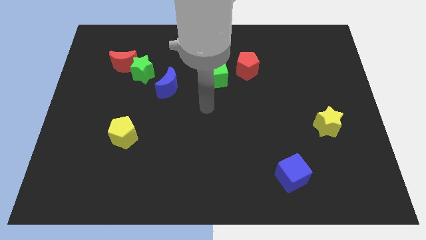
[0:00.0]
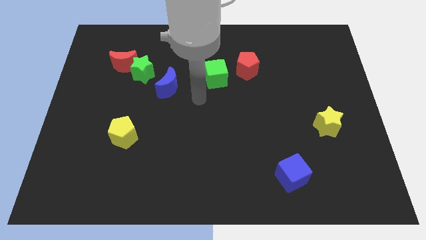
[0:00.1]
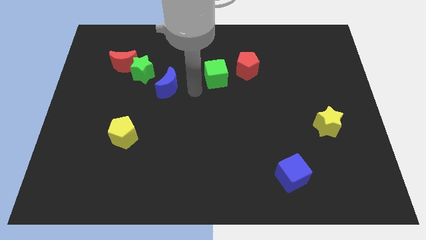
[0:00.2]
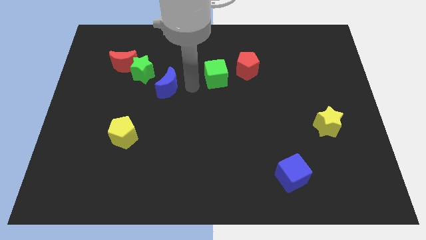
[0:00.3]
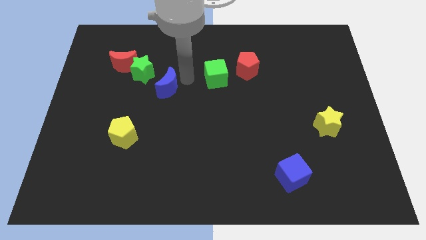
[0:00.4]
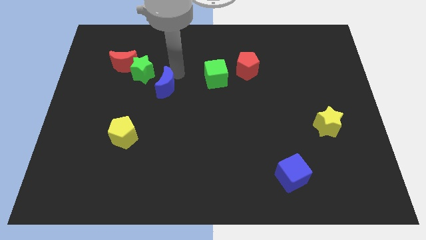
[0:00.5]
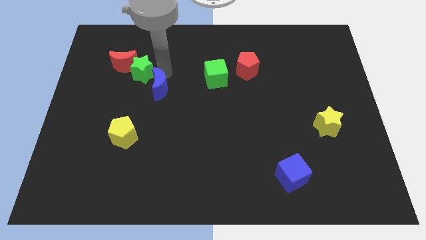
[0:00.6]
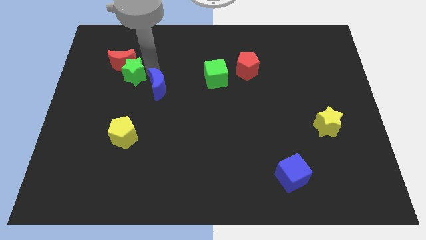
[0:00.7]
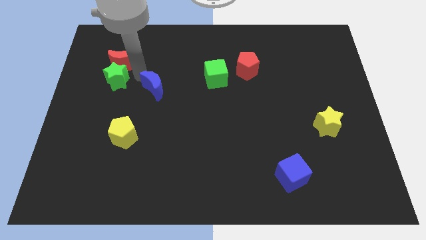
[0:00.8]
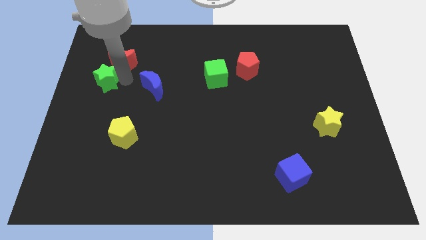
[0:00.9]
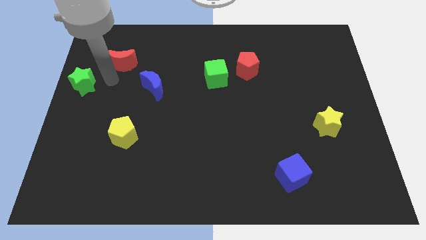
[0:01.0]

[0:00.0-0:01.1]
pull the red moon apart from the green star

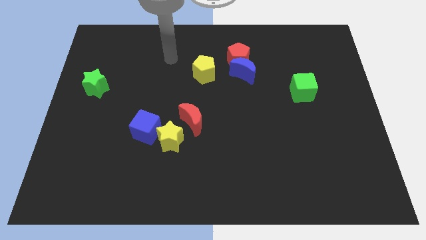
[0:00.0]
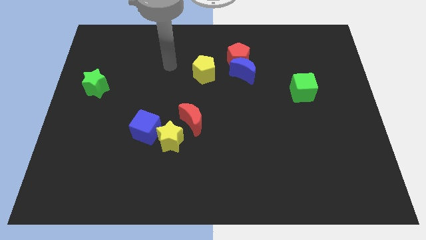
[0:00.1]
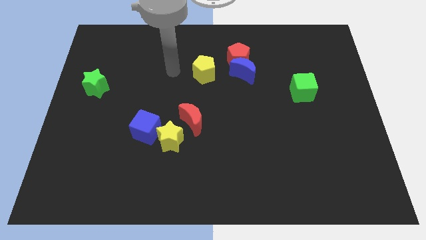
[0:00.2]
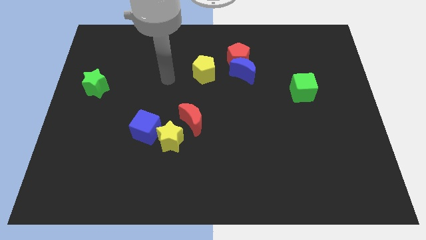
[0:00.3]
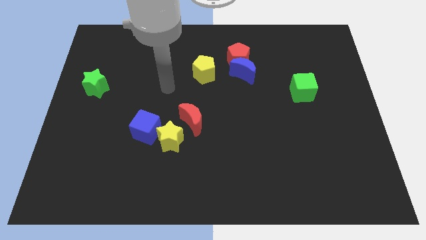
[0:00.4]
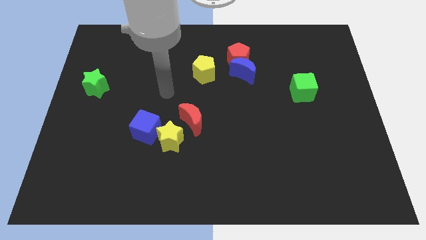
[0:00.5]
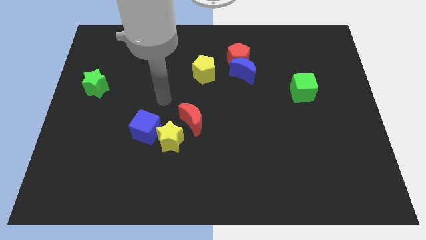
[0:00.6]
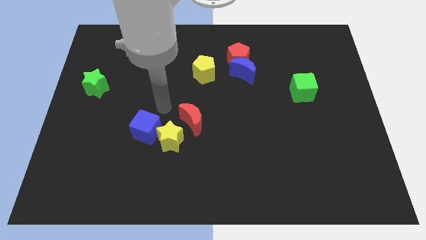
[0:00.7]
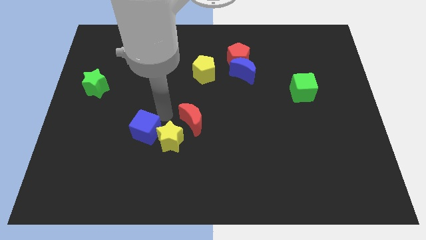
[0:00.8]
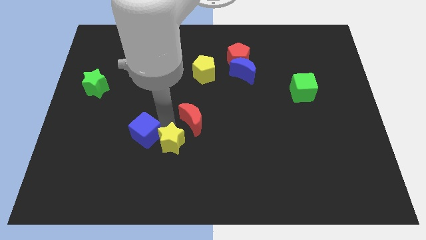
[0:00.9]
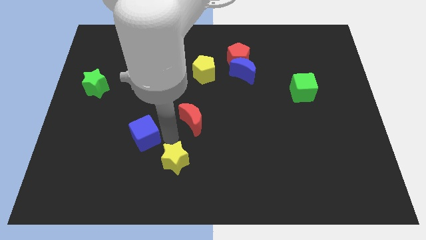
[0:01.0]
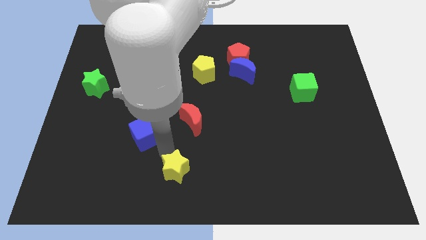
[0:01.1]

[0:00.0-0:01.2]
separate the blue cube from the yellow star

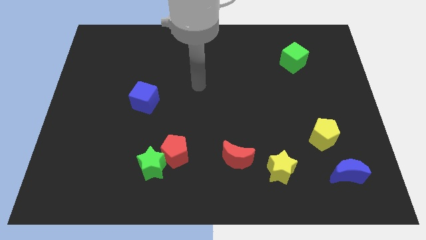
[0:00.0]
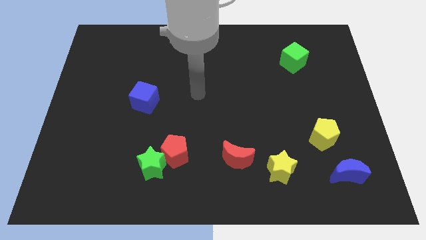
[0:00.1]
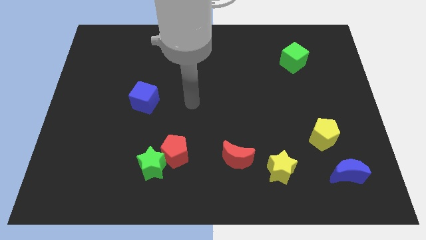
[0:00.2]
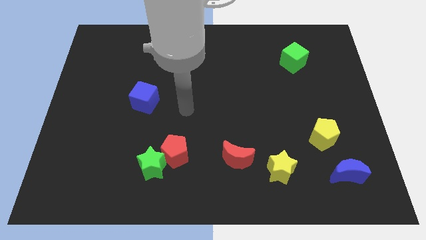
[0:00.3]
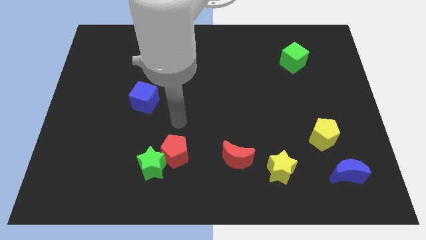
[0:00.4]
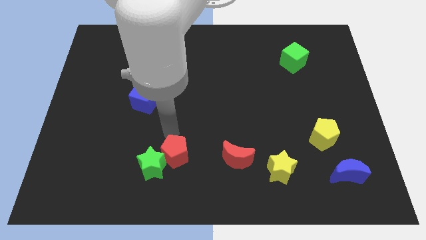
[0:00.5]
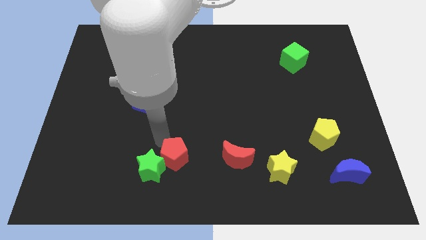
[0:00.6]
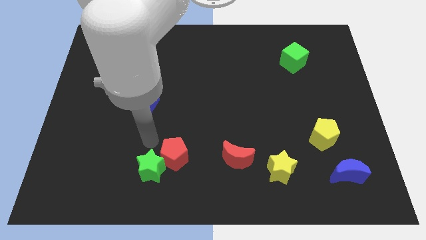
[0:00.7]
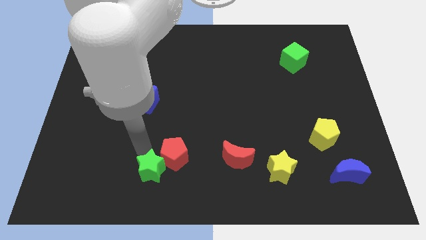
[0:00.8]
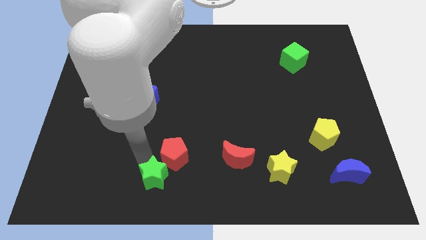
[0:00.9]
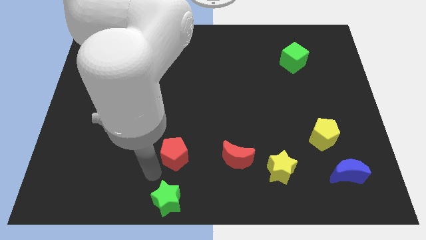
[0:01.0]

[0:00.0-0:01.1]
move the red pentagon away from the green star

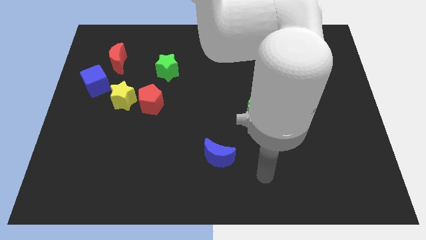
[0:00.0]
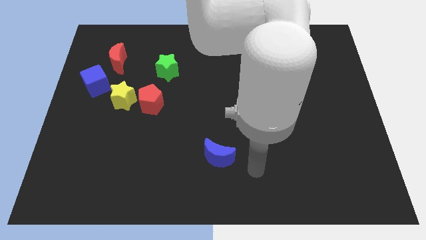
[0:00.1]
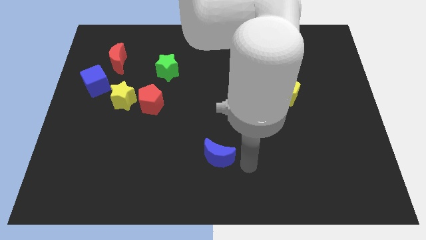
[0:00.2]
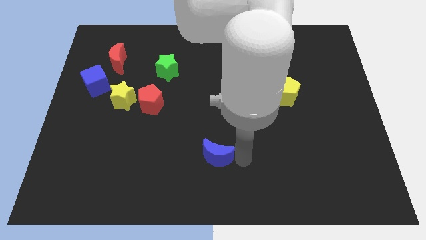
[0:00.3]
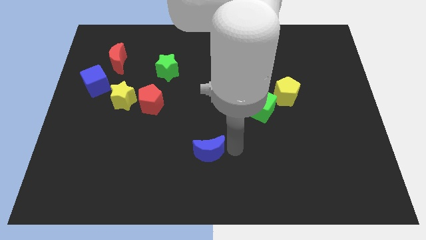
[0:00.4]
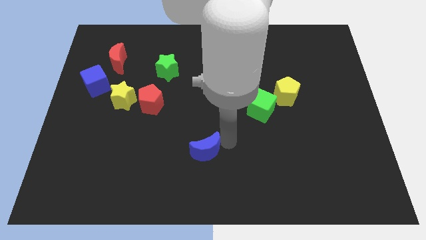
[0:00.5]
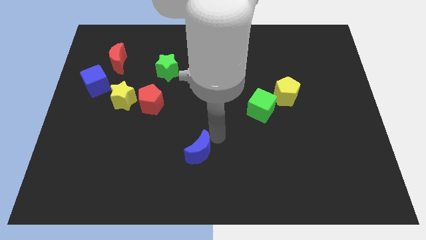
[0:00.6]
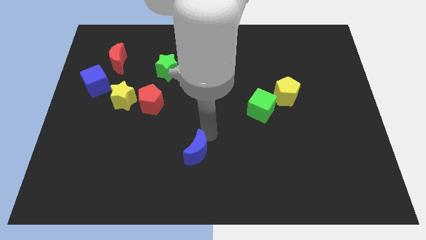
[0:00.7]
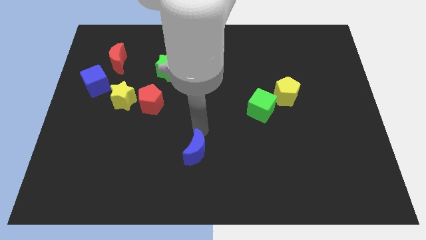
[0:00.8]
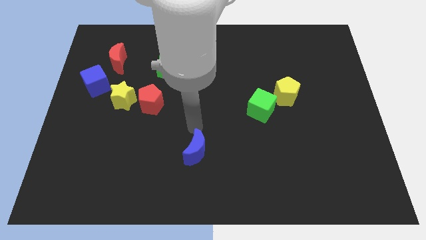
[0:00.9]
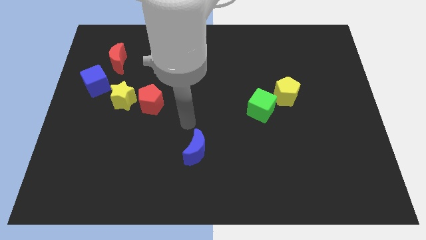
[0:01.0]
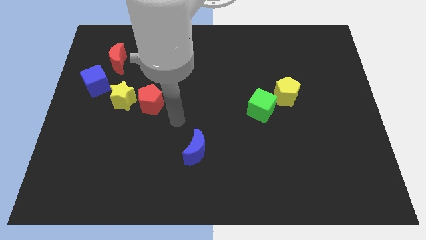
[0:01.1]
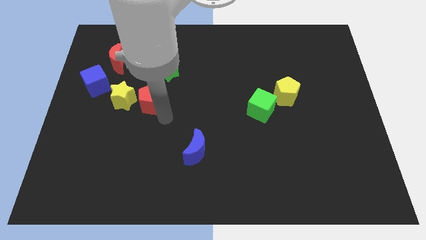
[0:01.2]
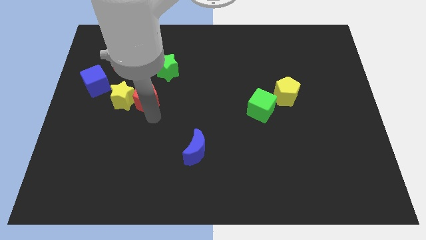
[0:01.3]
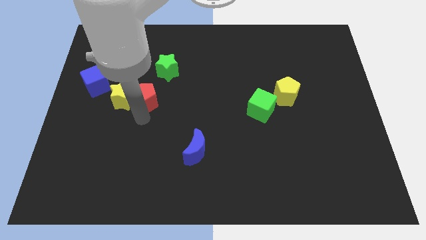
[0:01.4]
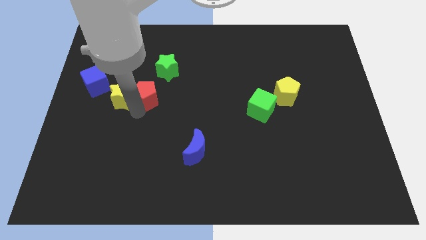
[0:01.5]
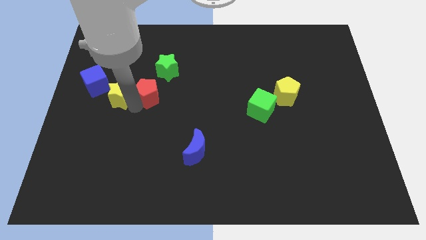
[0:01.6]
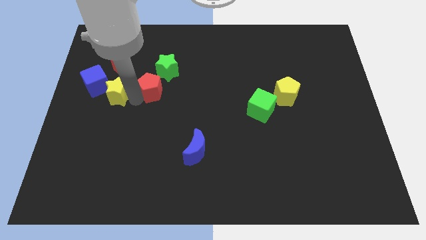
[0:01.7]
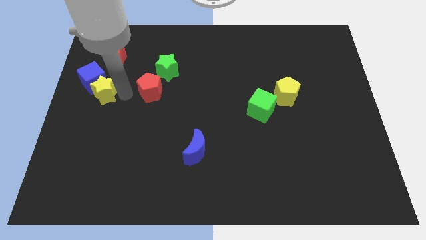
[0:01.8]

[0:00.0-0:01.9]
move the red pentagon away from the yellow star

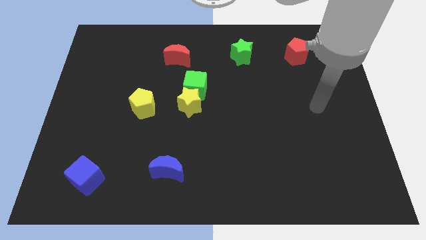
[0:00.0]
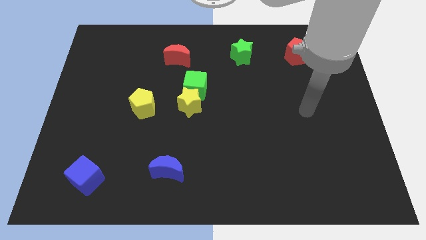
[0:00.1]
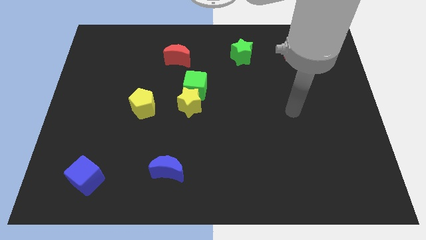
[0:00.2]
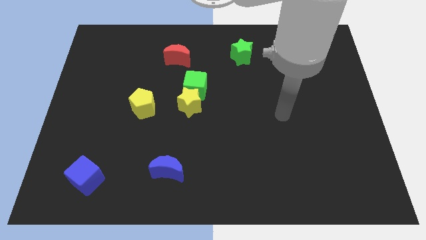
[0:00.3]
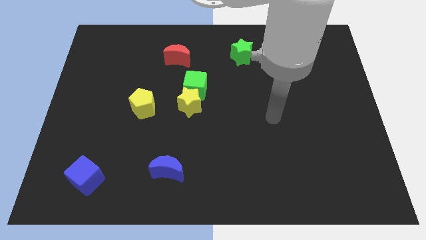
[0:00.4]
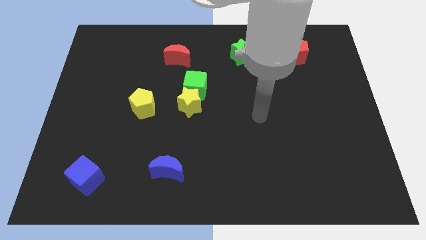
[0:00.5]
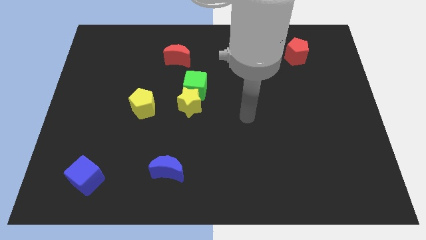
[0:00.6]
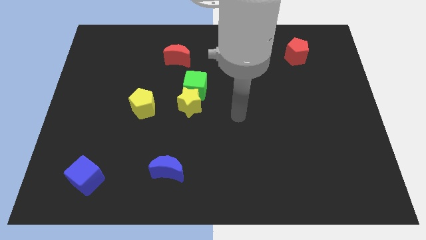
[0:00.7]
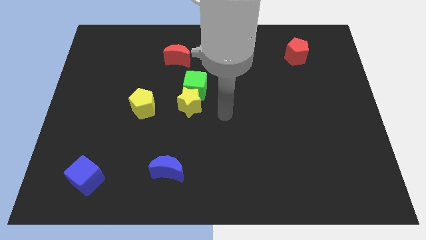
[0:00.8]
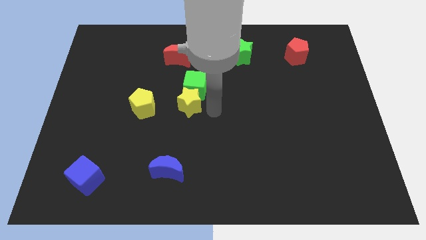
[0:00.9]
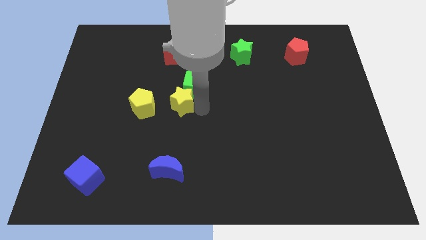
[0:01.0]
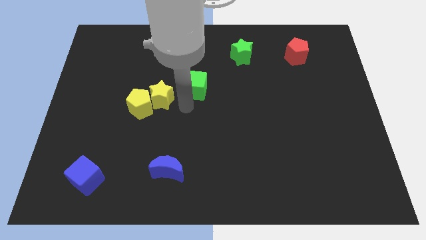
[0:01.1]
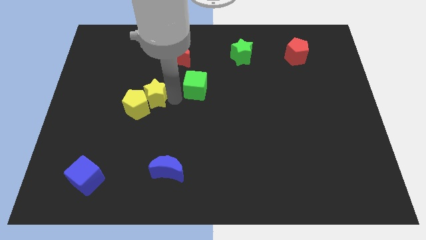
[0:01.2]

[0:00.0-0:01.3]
pull the green cube apart from the yellow star

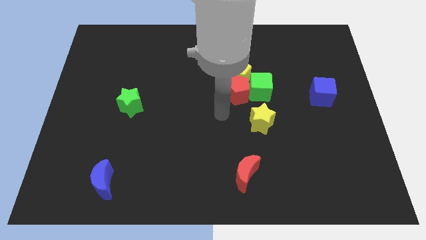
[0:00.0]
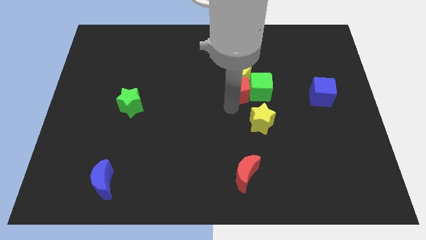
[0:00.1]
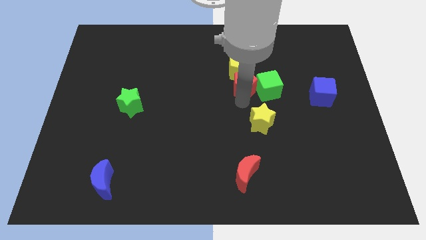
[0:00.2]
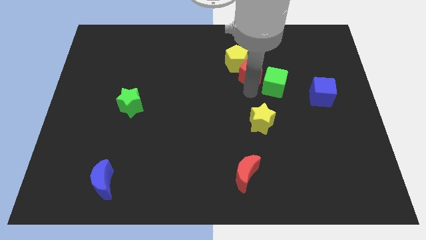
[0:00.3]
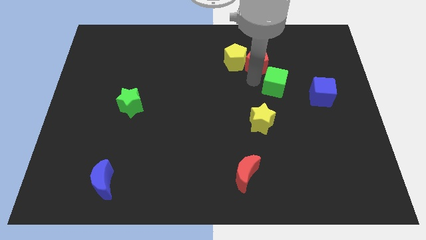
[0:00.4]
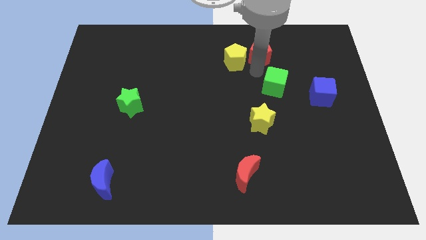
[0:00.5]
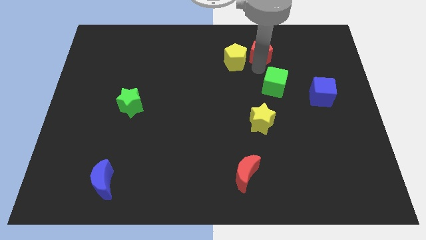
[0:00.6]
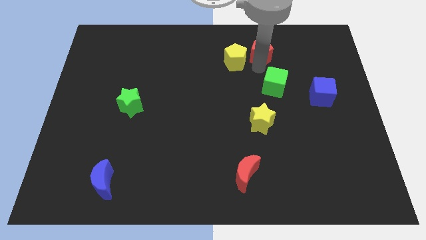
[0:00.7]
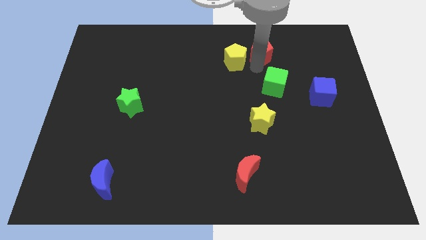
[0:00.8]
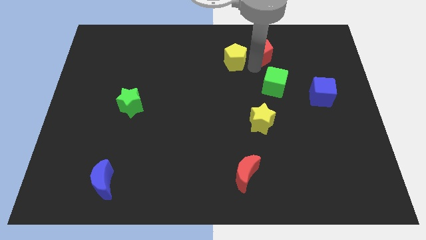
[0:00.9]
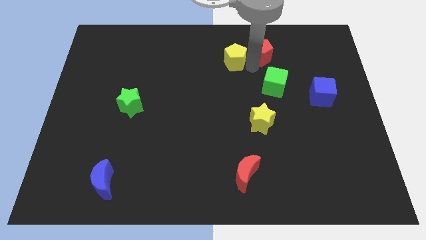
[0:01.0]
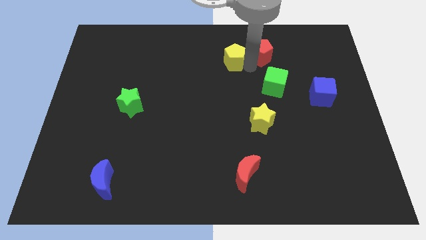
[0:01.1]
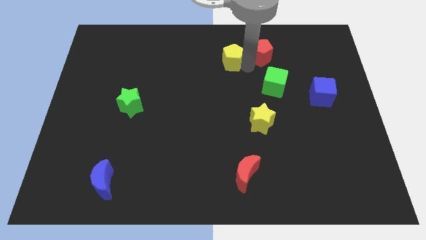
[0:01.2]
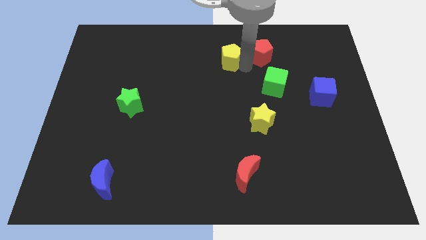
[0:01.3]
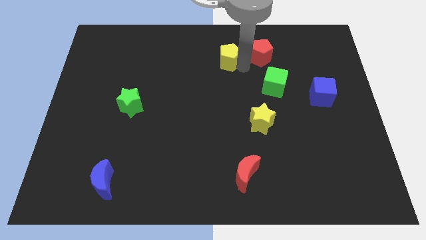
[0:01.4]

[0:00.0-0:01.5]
pull the yellow pentagon apart from the red pentagon and green cube

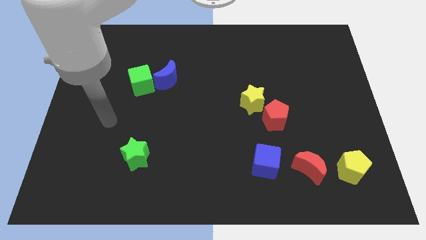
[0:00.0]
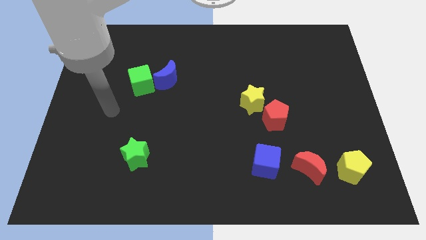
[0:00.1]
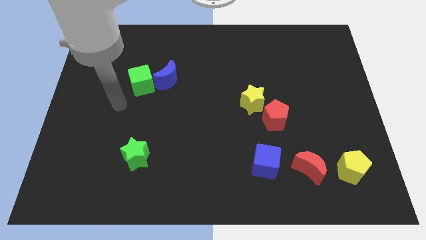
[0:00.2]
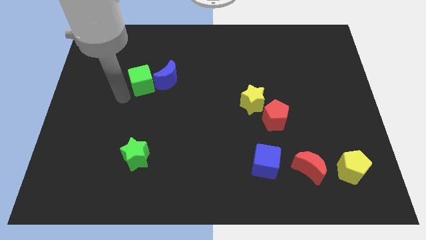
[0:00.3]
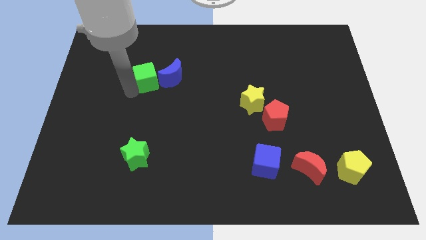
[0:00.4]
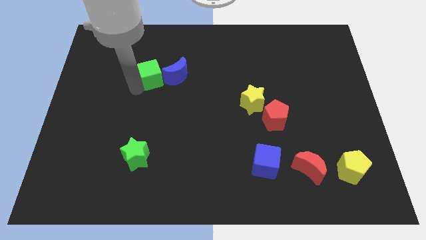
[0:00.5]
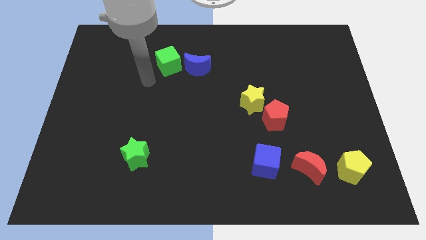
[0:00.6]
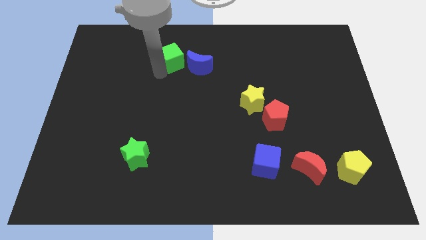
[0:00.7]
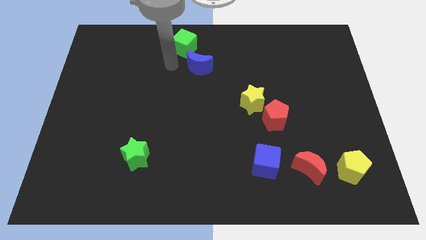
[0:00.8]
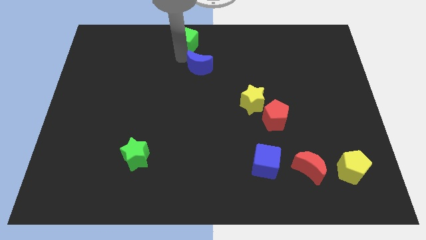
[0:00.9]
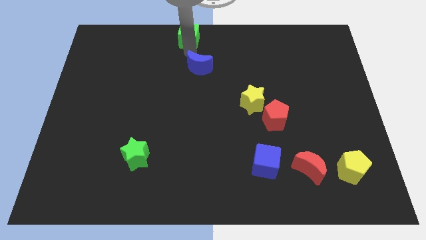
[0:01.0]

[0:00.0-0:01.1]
separate the blue moon from the green cube

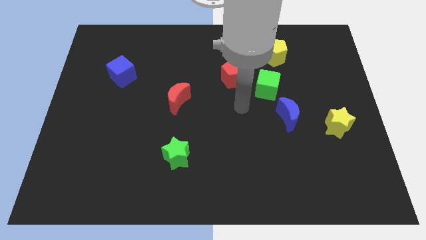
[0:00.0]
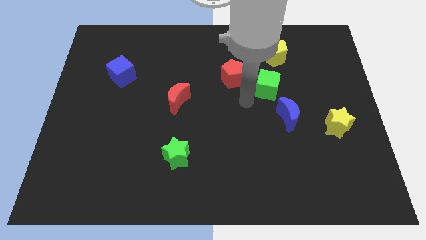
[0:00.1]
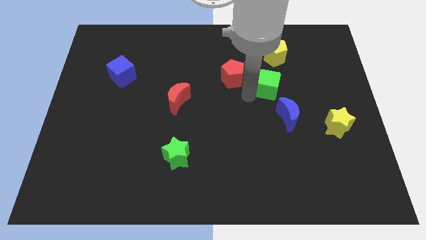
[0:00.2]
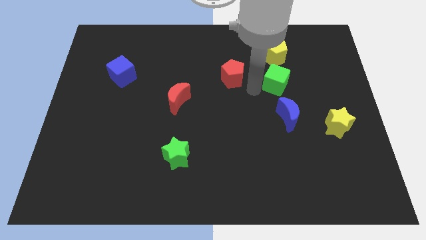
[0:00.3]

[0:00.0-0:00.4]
separate the red pentagon from the green cube
